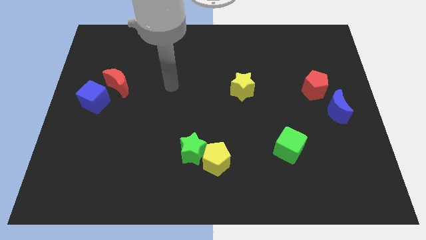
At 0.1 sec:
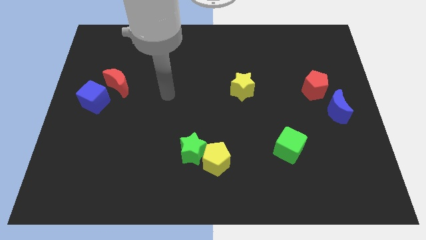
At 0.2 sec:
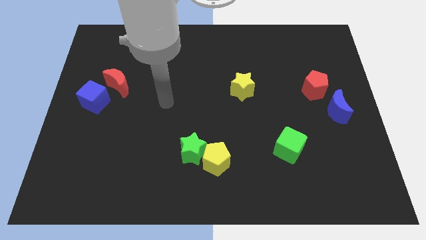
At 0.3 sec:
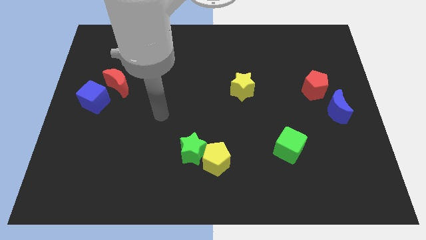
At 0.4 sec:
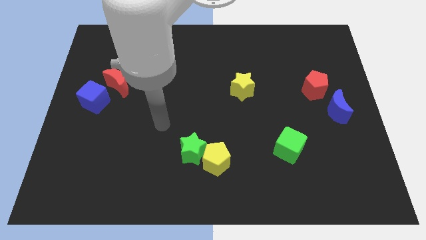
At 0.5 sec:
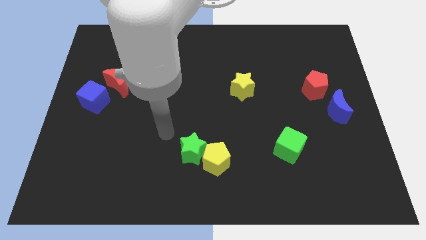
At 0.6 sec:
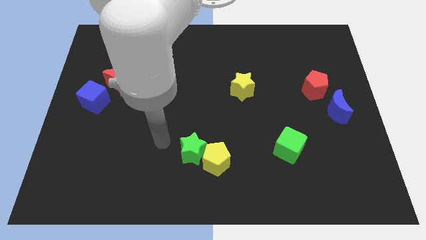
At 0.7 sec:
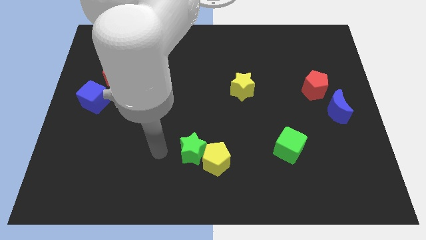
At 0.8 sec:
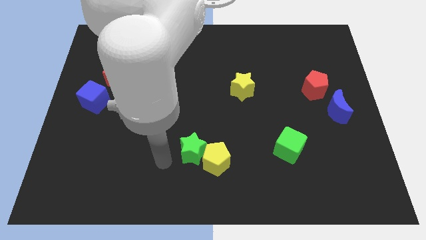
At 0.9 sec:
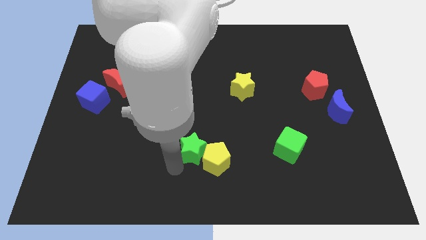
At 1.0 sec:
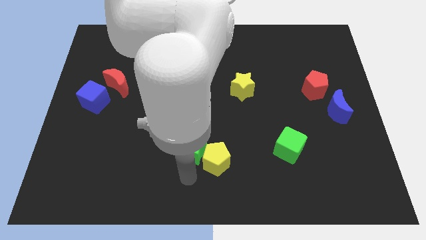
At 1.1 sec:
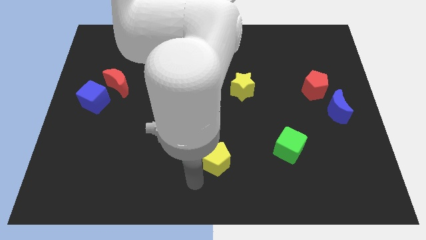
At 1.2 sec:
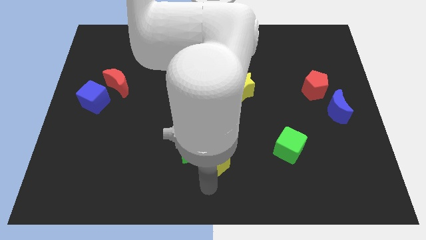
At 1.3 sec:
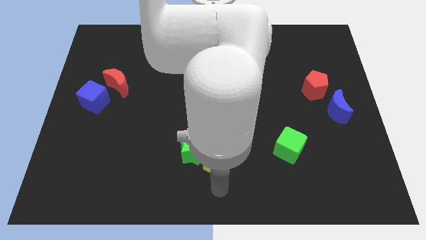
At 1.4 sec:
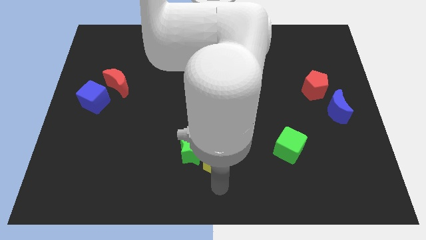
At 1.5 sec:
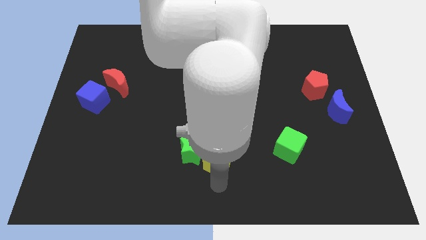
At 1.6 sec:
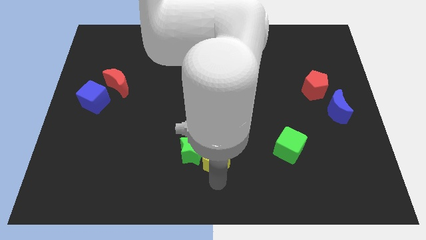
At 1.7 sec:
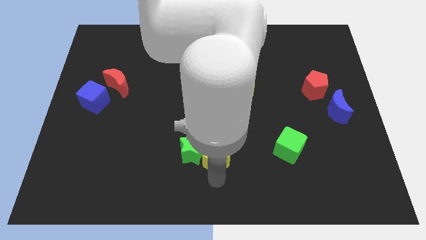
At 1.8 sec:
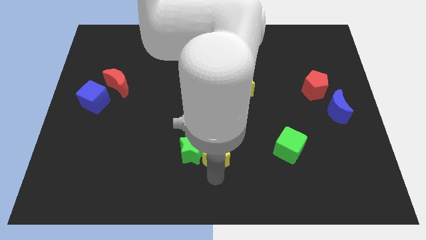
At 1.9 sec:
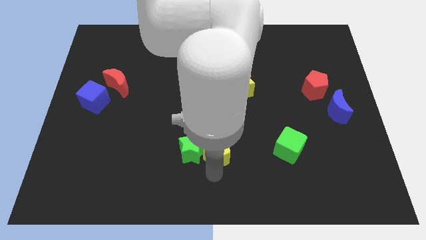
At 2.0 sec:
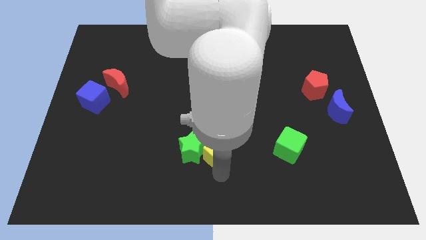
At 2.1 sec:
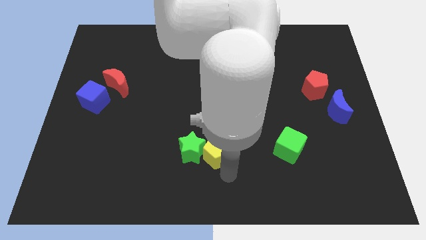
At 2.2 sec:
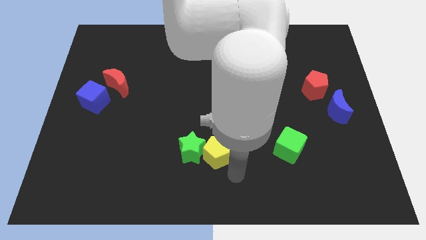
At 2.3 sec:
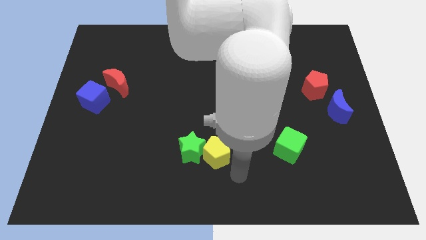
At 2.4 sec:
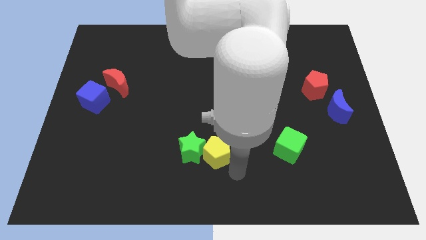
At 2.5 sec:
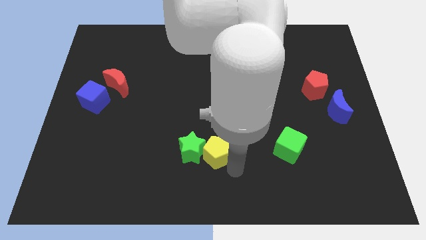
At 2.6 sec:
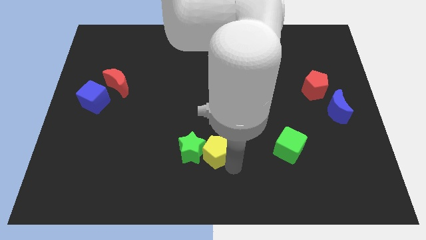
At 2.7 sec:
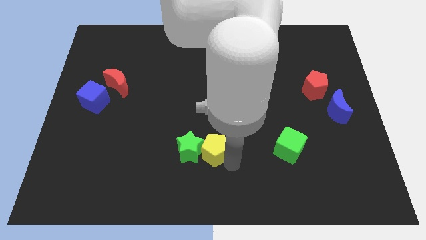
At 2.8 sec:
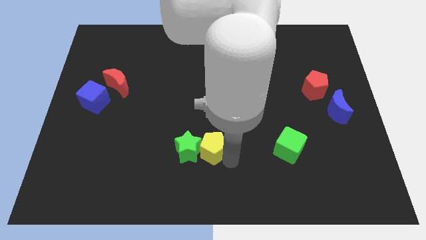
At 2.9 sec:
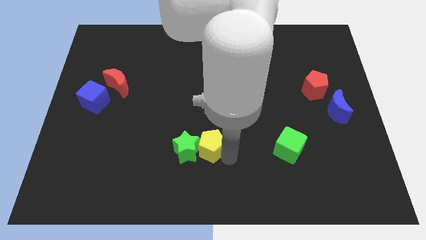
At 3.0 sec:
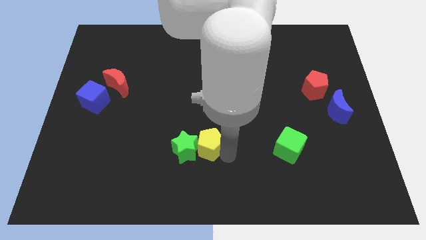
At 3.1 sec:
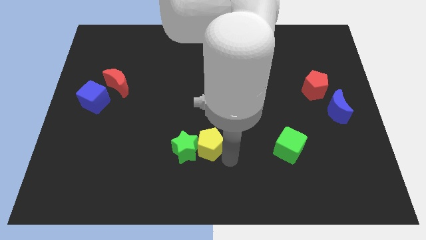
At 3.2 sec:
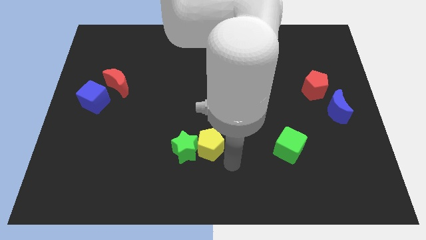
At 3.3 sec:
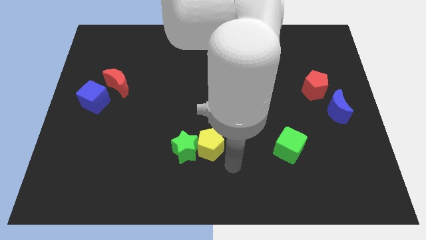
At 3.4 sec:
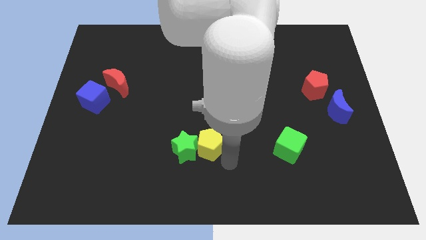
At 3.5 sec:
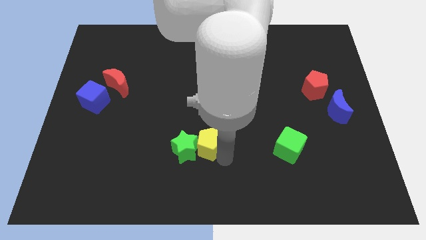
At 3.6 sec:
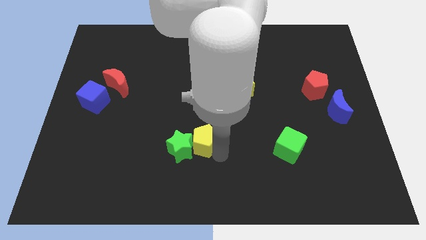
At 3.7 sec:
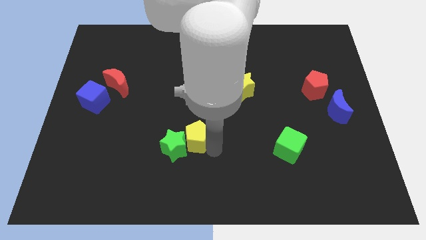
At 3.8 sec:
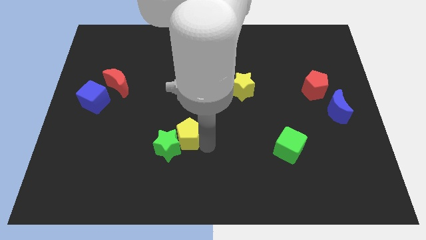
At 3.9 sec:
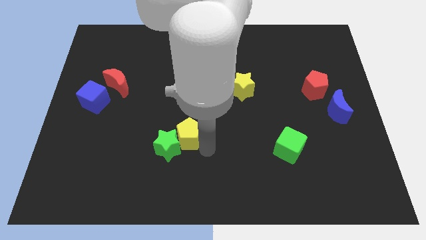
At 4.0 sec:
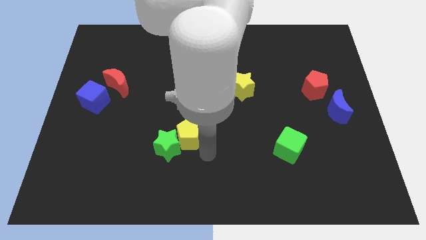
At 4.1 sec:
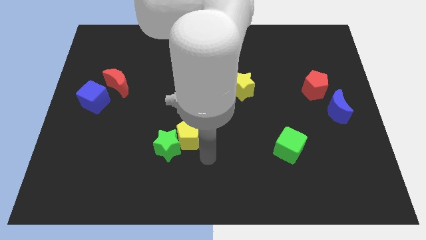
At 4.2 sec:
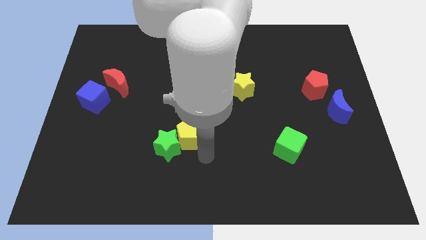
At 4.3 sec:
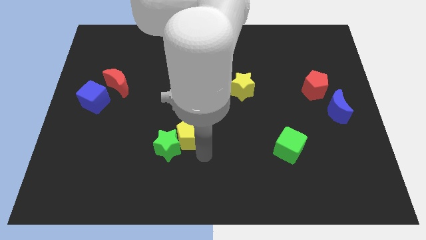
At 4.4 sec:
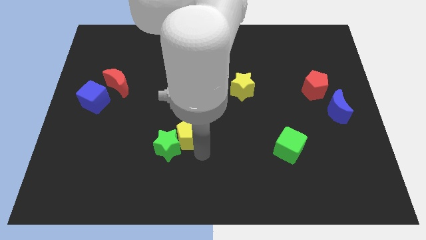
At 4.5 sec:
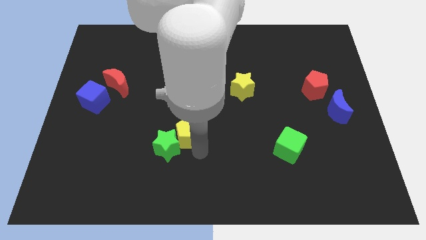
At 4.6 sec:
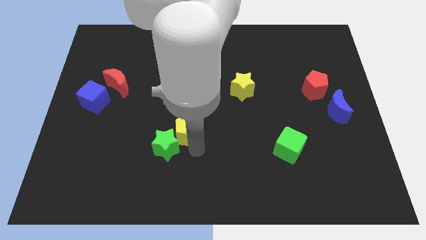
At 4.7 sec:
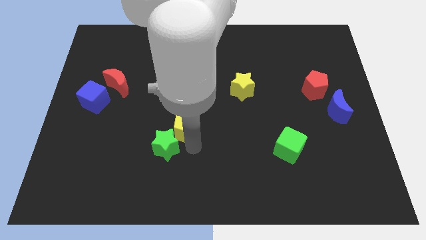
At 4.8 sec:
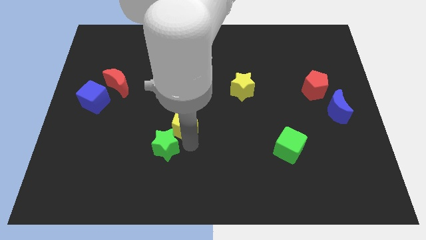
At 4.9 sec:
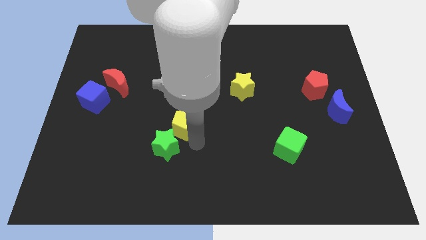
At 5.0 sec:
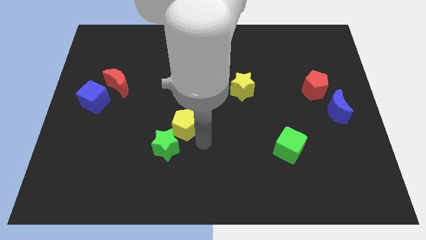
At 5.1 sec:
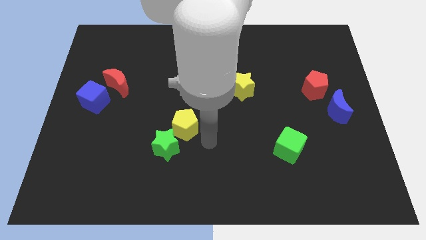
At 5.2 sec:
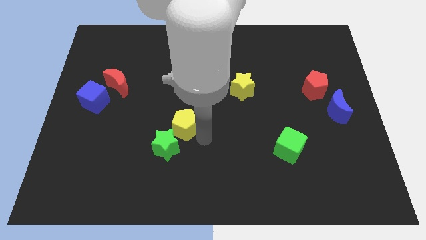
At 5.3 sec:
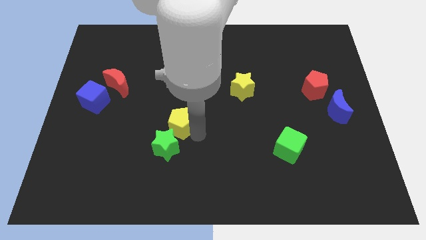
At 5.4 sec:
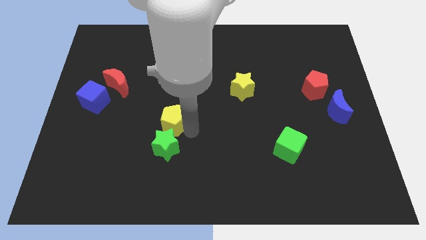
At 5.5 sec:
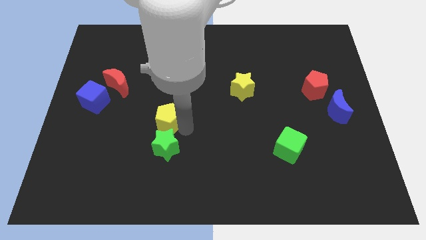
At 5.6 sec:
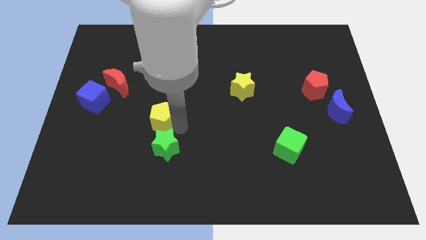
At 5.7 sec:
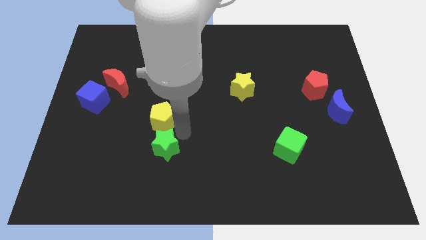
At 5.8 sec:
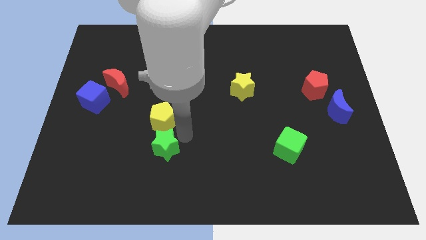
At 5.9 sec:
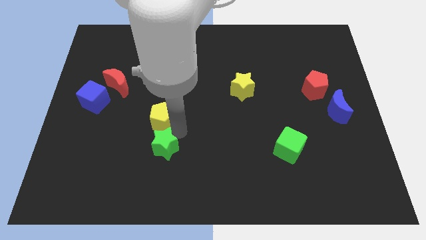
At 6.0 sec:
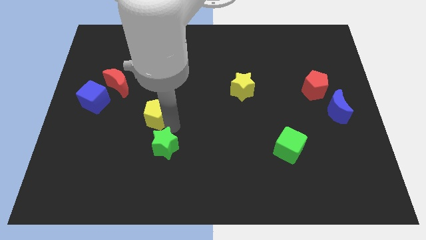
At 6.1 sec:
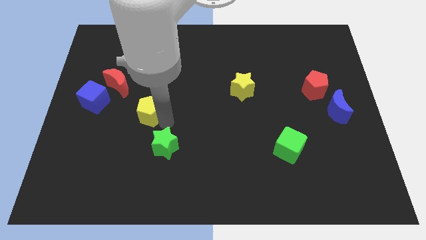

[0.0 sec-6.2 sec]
slide the yellow pentagon to the bottom right of the red moon

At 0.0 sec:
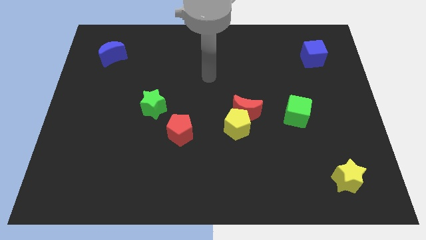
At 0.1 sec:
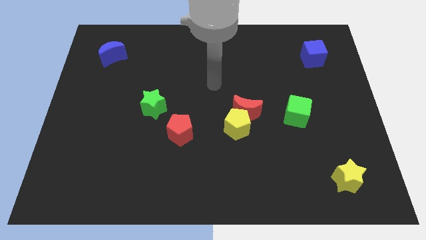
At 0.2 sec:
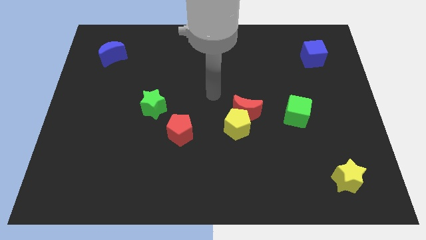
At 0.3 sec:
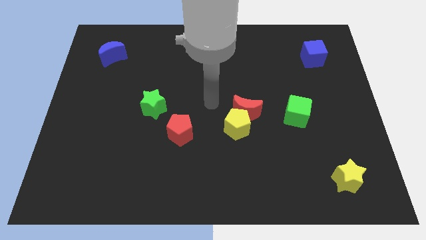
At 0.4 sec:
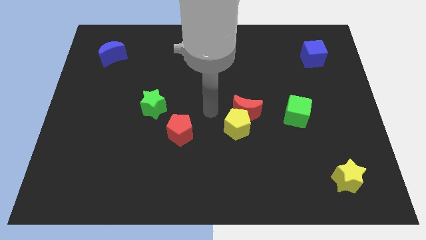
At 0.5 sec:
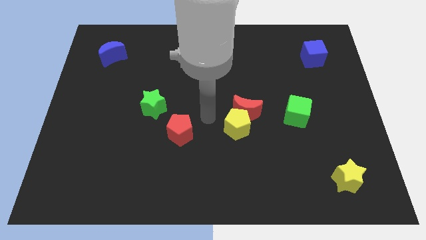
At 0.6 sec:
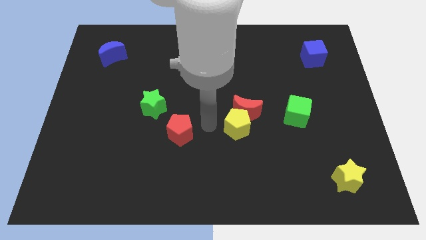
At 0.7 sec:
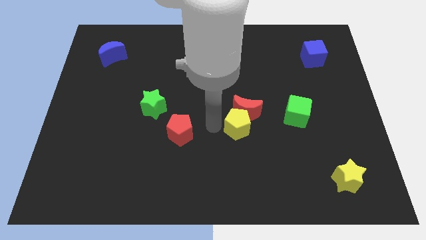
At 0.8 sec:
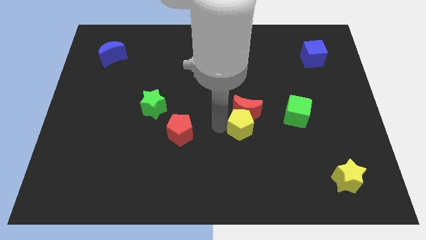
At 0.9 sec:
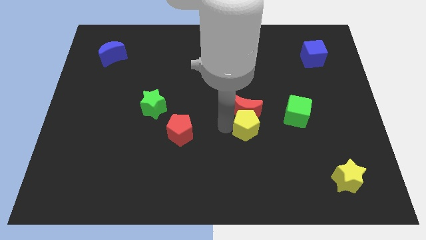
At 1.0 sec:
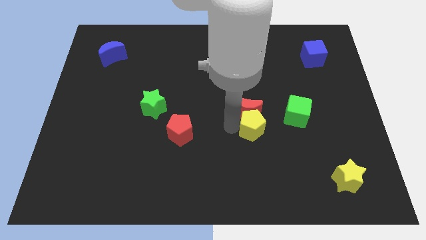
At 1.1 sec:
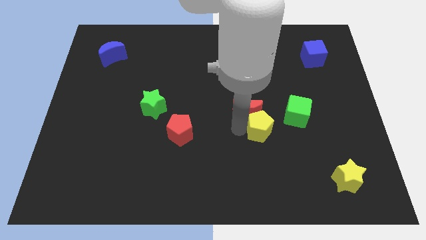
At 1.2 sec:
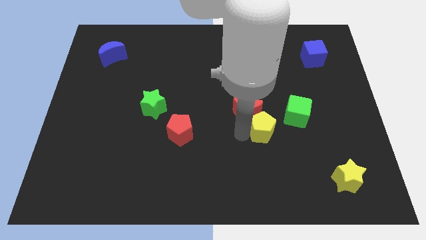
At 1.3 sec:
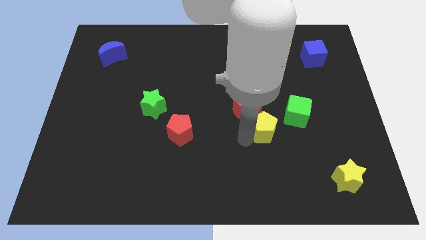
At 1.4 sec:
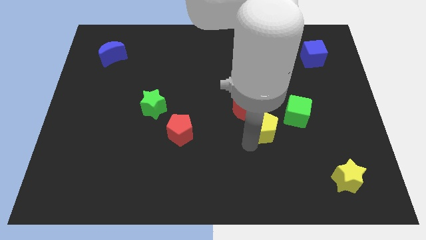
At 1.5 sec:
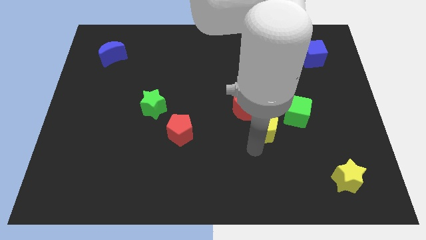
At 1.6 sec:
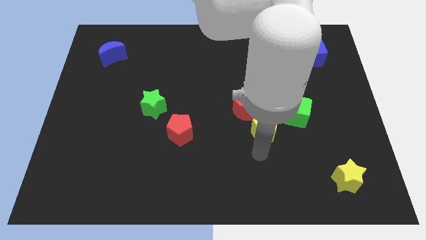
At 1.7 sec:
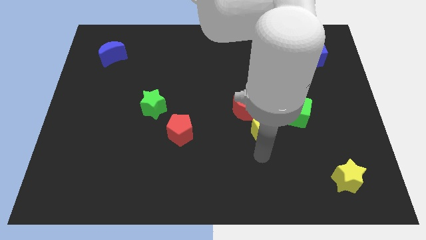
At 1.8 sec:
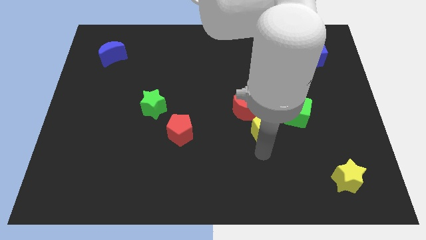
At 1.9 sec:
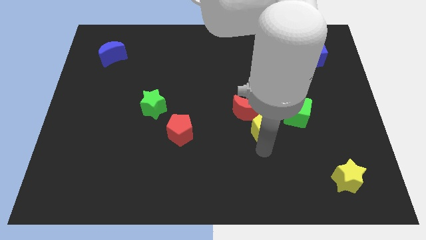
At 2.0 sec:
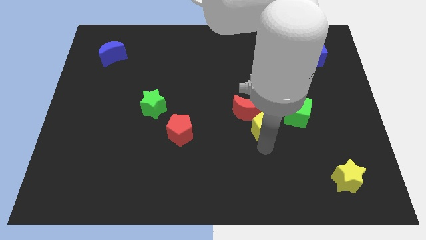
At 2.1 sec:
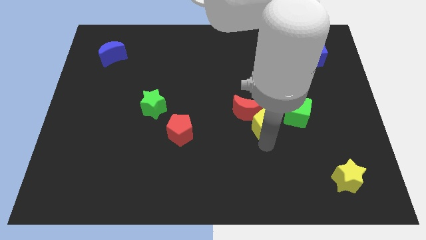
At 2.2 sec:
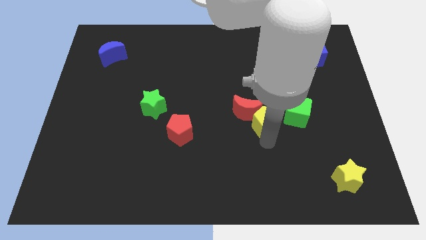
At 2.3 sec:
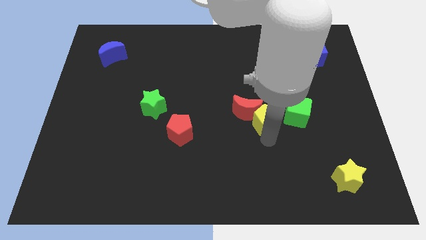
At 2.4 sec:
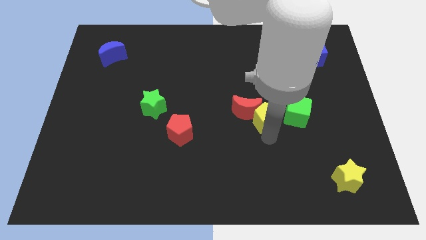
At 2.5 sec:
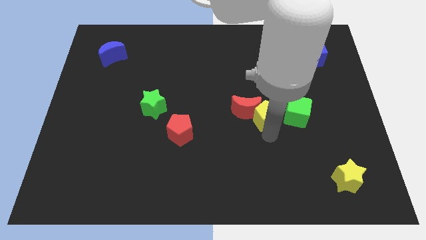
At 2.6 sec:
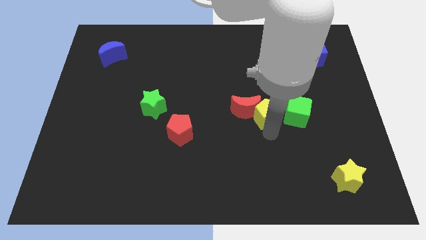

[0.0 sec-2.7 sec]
slide the yellow pentagon to the top right of the red moon
